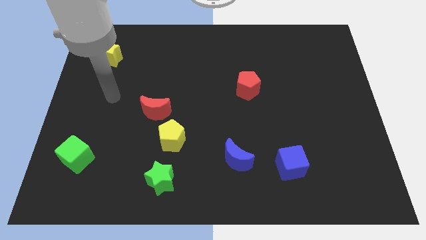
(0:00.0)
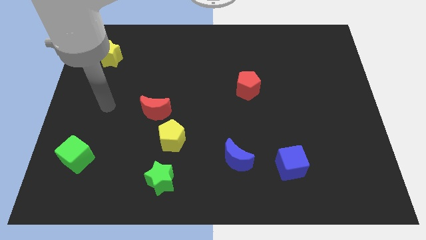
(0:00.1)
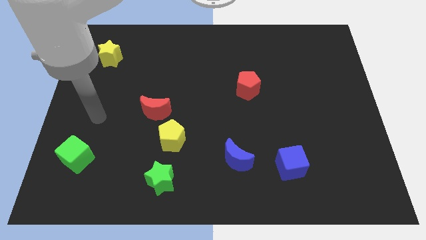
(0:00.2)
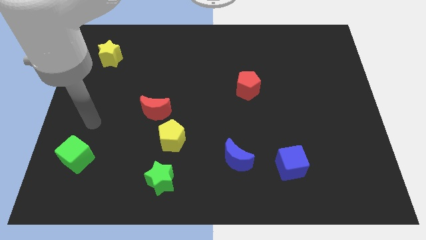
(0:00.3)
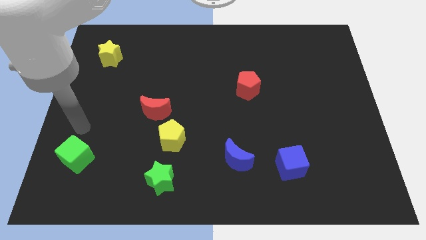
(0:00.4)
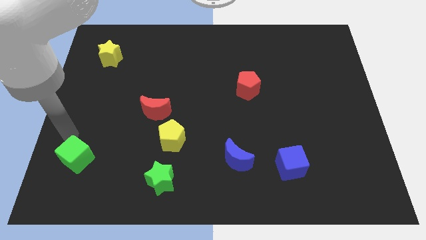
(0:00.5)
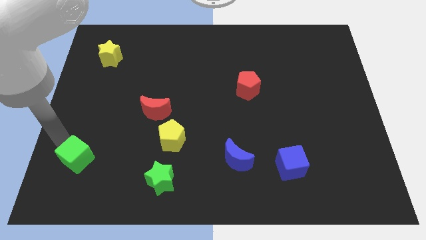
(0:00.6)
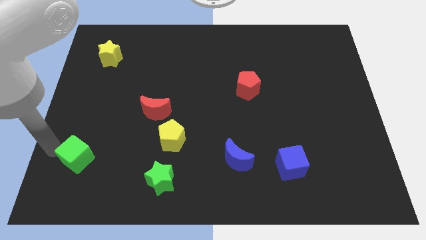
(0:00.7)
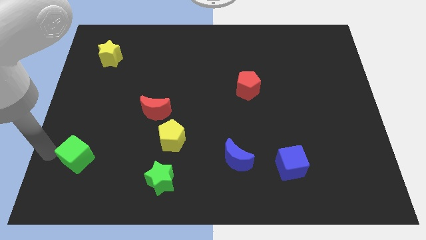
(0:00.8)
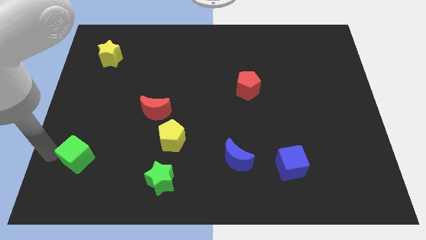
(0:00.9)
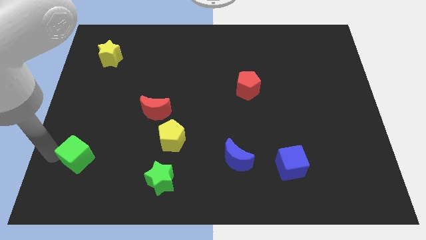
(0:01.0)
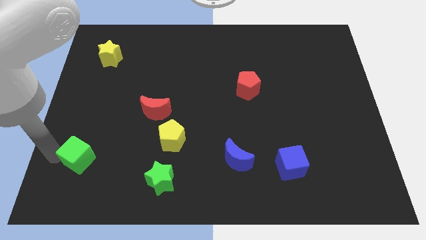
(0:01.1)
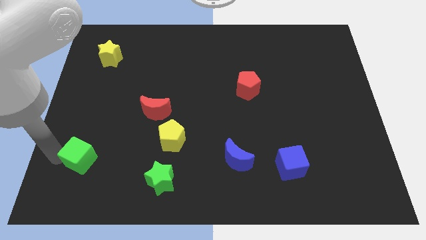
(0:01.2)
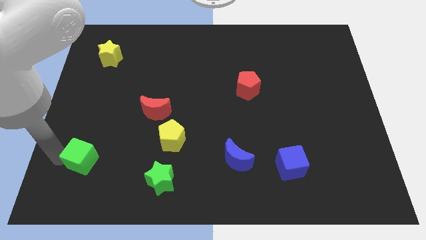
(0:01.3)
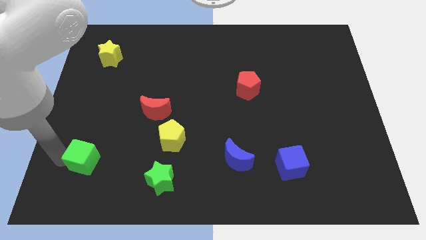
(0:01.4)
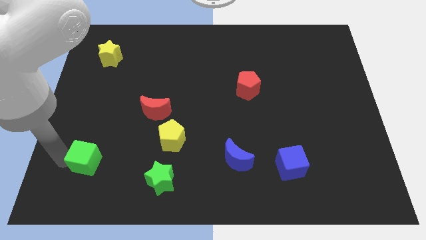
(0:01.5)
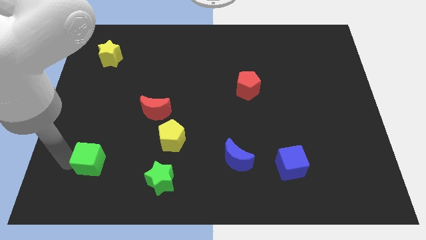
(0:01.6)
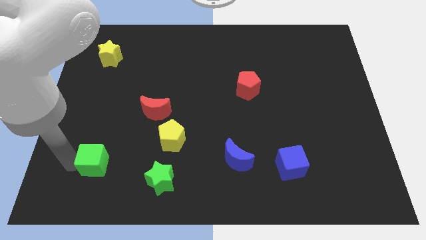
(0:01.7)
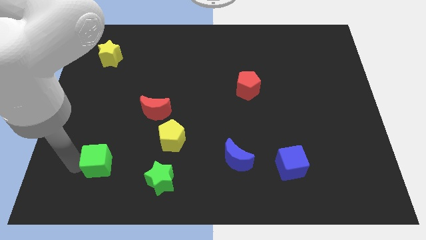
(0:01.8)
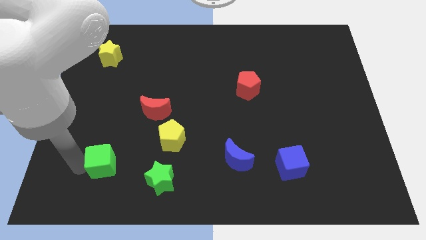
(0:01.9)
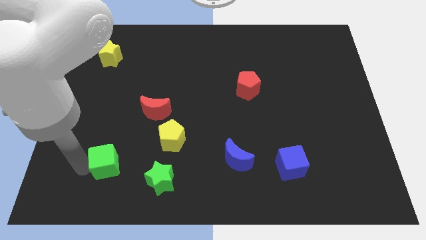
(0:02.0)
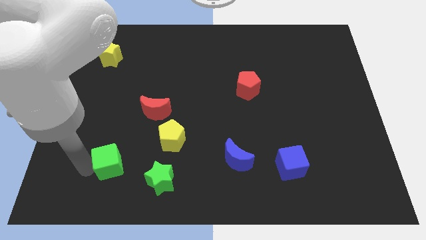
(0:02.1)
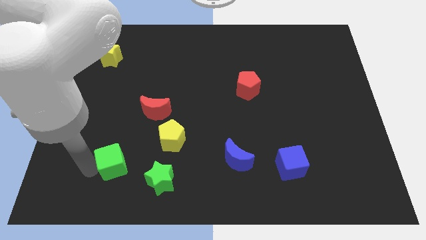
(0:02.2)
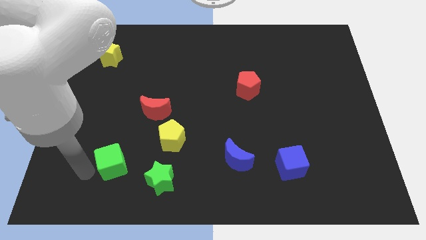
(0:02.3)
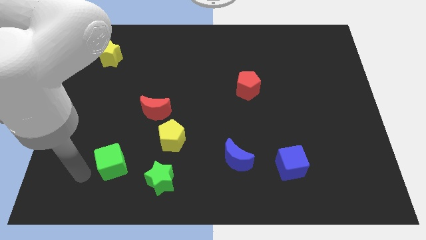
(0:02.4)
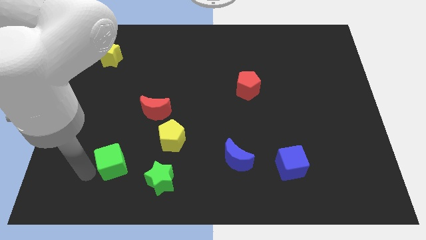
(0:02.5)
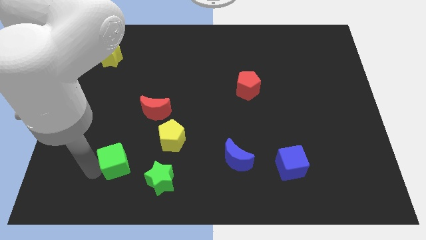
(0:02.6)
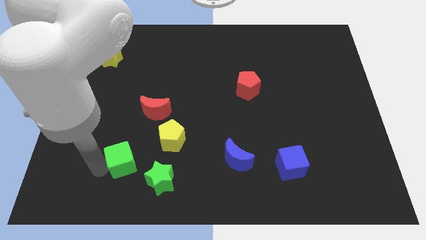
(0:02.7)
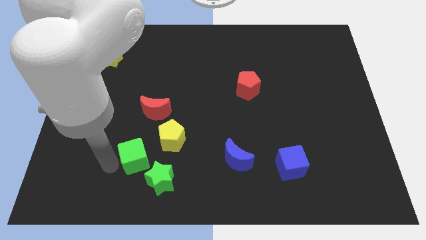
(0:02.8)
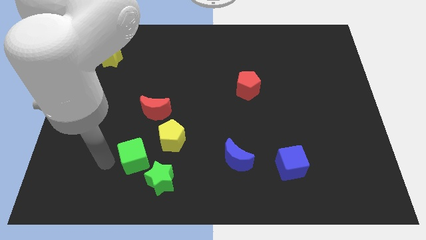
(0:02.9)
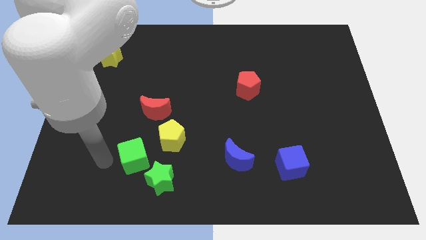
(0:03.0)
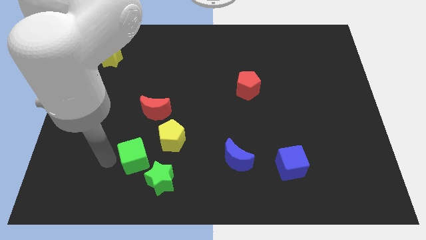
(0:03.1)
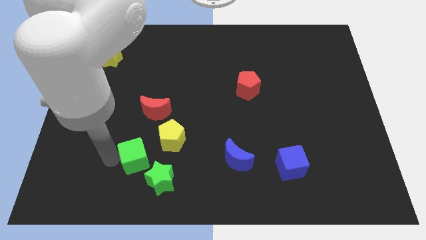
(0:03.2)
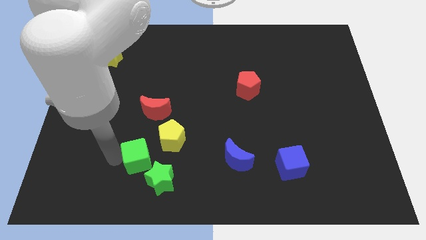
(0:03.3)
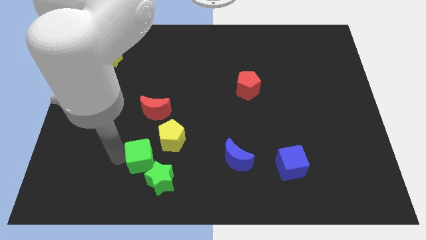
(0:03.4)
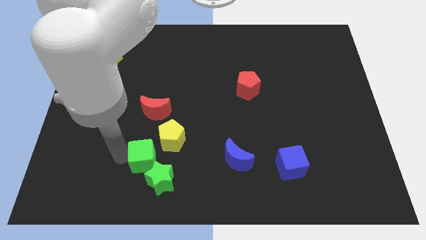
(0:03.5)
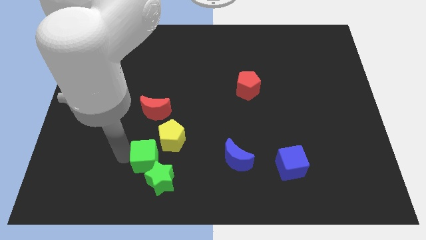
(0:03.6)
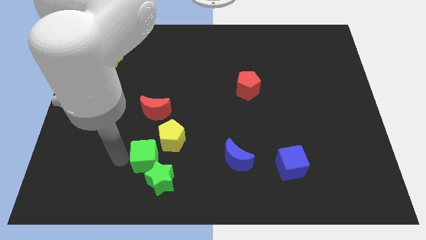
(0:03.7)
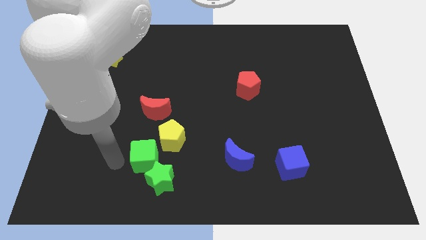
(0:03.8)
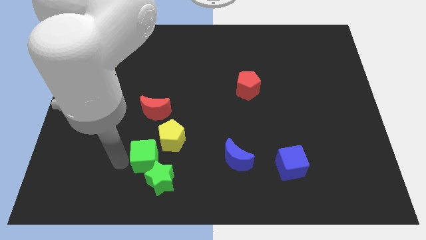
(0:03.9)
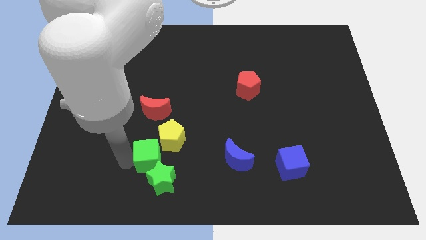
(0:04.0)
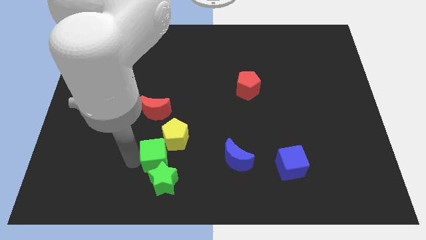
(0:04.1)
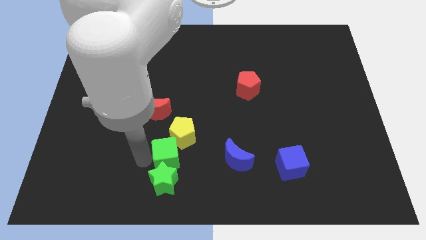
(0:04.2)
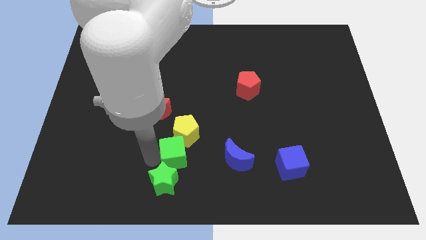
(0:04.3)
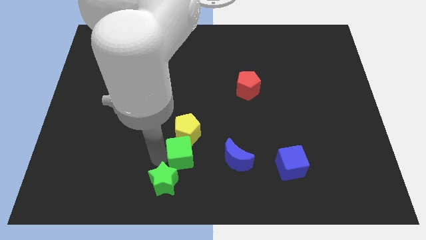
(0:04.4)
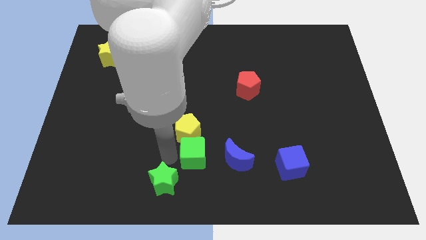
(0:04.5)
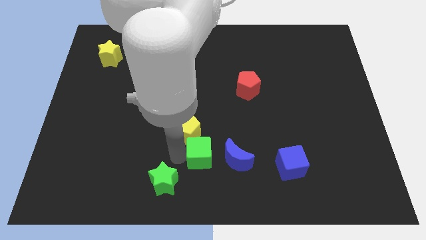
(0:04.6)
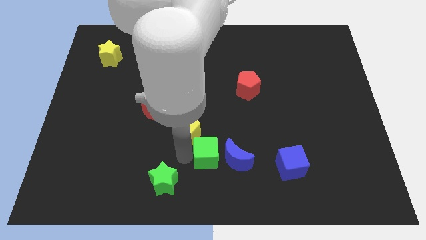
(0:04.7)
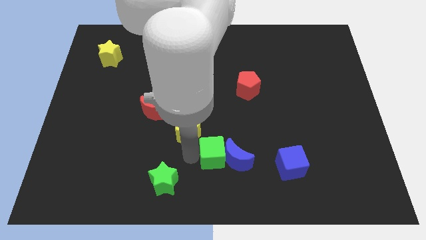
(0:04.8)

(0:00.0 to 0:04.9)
push the green cube to the blue moon

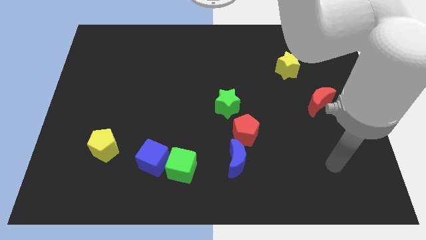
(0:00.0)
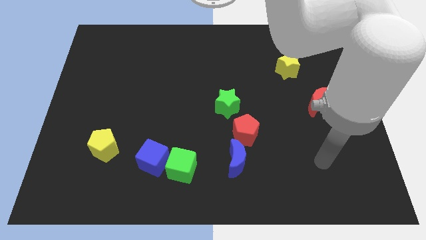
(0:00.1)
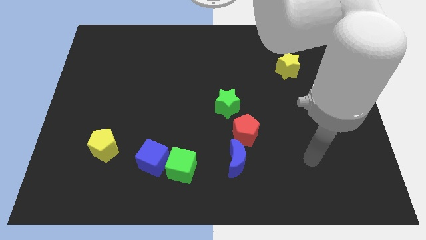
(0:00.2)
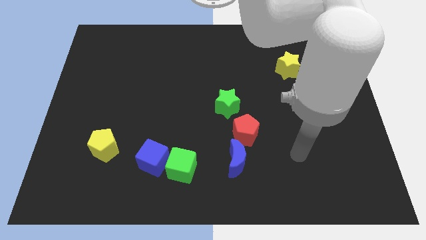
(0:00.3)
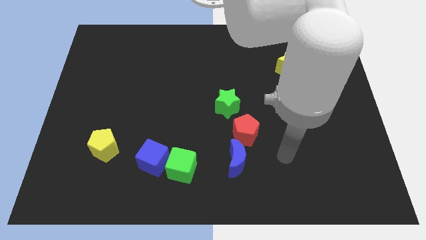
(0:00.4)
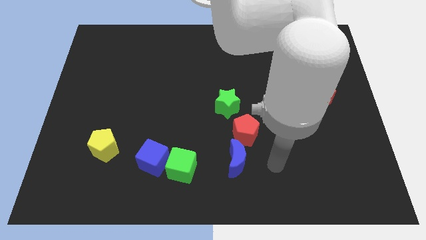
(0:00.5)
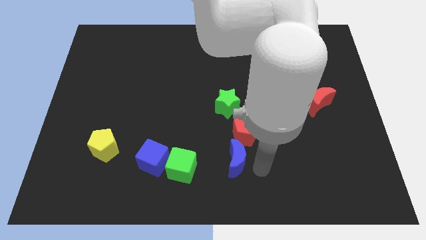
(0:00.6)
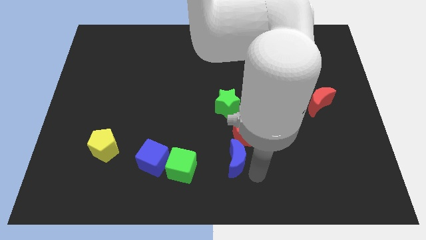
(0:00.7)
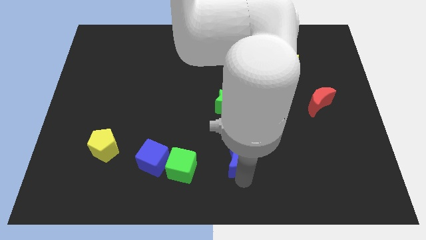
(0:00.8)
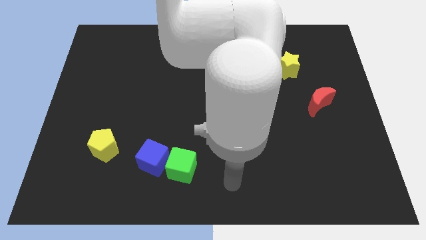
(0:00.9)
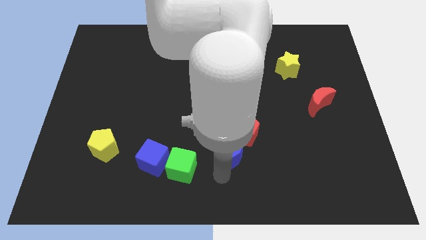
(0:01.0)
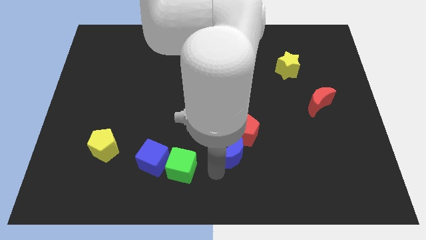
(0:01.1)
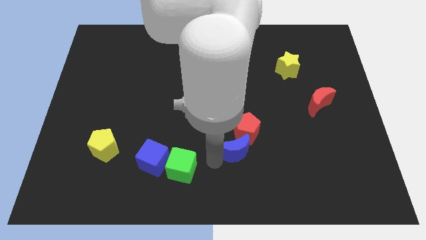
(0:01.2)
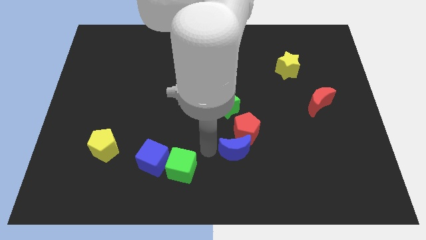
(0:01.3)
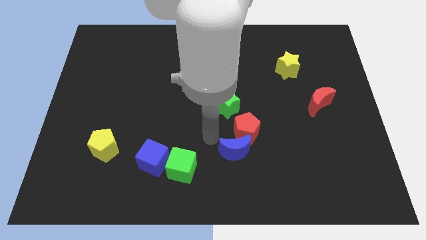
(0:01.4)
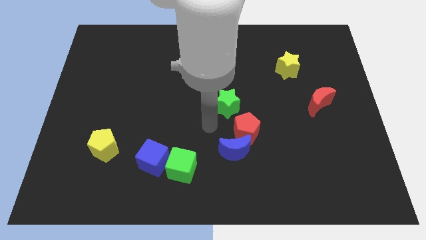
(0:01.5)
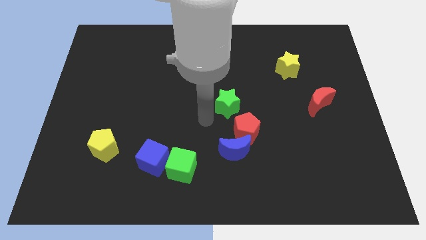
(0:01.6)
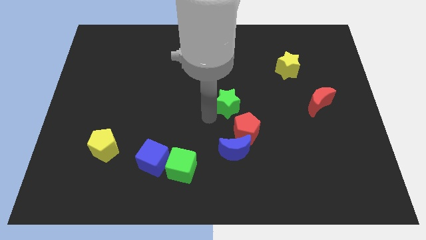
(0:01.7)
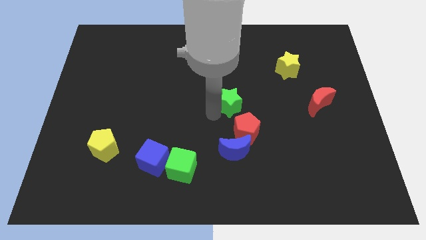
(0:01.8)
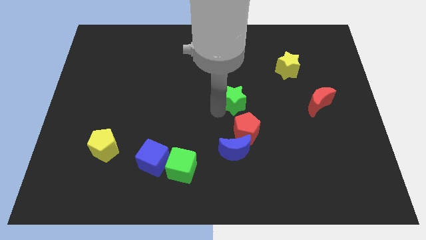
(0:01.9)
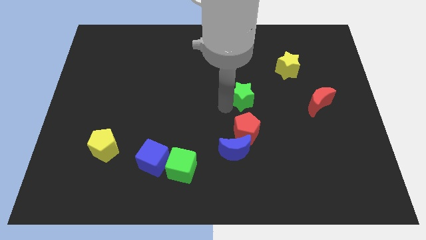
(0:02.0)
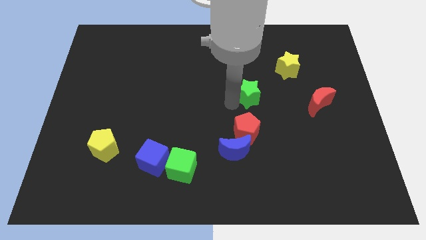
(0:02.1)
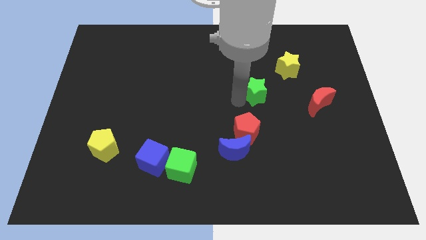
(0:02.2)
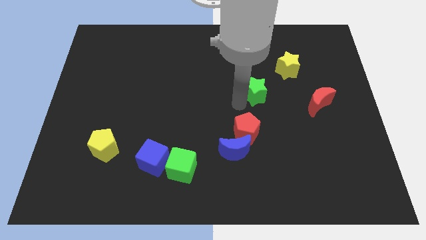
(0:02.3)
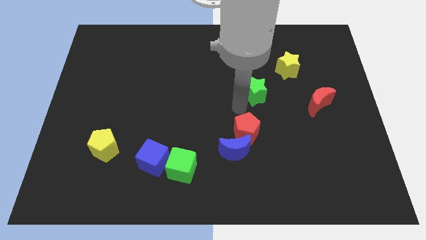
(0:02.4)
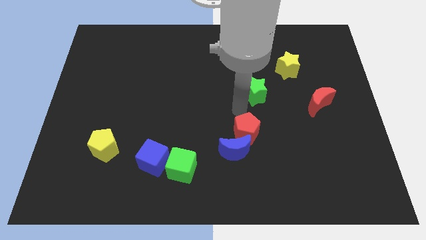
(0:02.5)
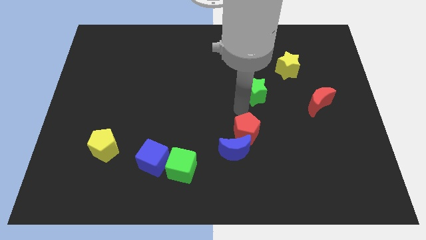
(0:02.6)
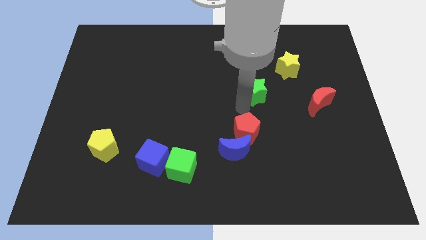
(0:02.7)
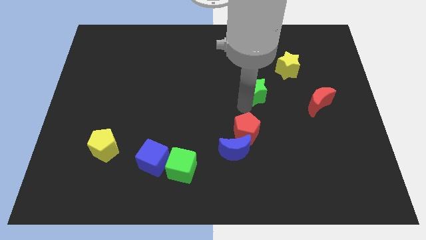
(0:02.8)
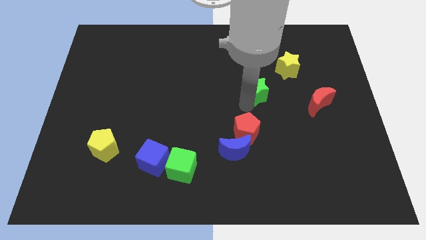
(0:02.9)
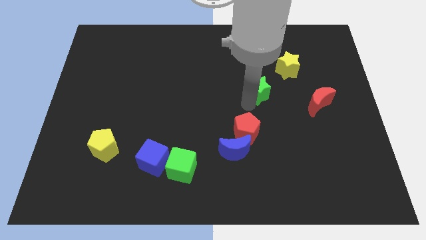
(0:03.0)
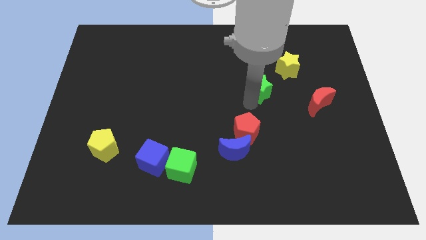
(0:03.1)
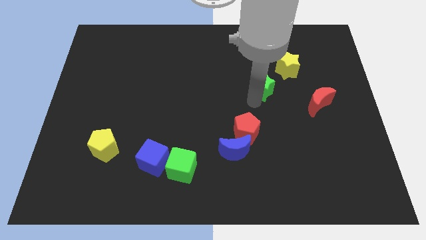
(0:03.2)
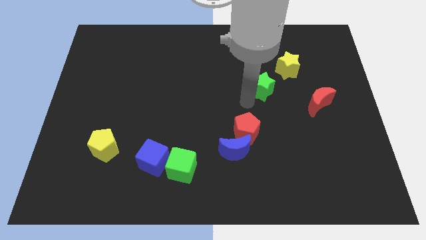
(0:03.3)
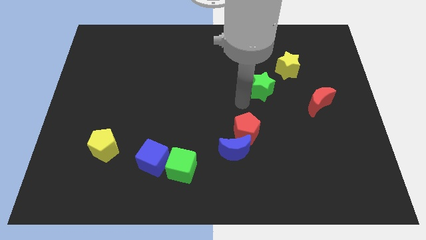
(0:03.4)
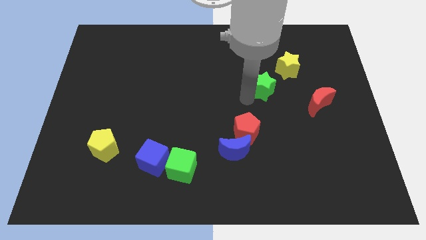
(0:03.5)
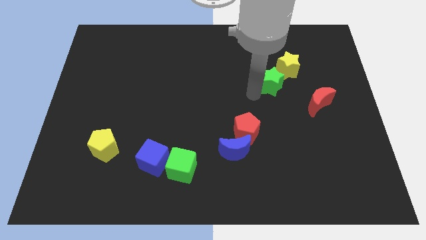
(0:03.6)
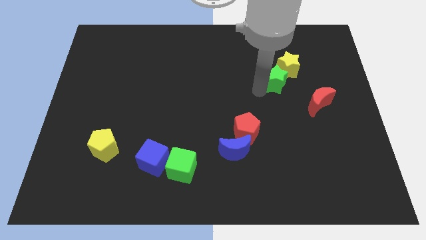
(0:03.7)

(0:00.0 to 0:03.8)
slide the green star close to the yellow star
